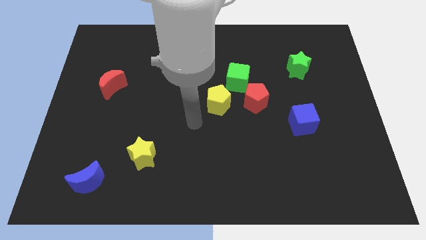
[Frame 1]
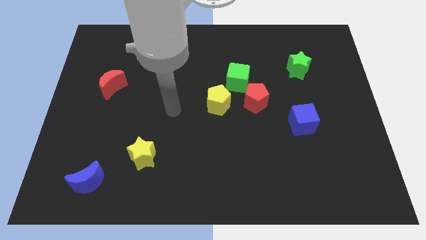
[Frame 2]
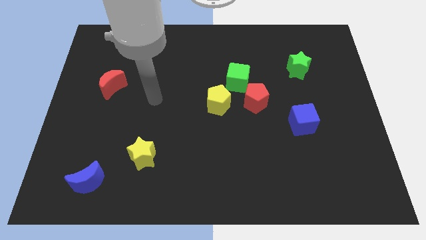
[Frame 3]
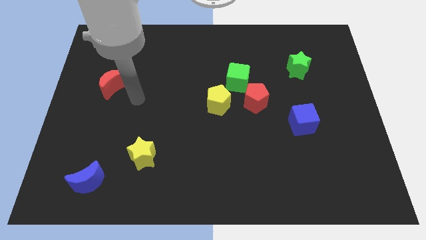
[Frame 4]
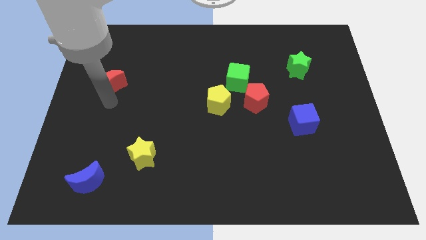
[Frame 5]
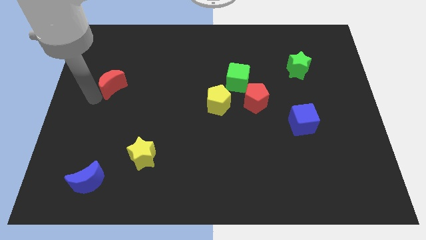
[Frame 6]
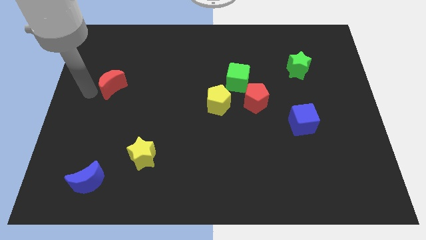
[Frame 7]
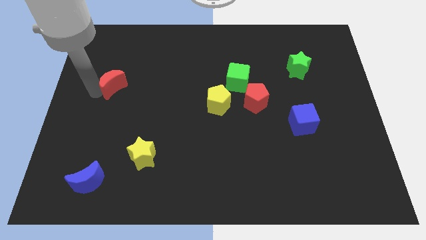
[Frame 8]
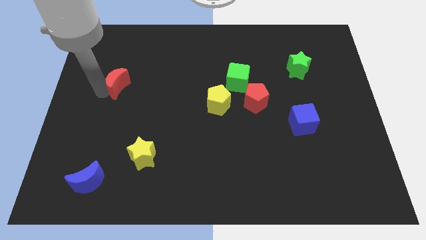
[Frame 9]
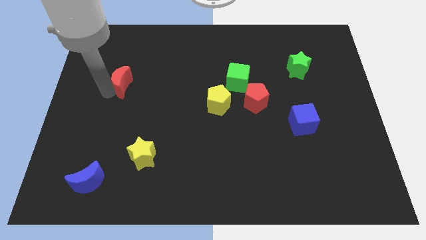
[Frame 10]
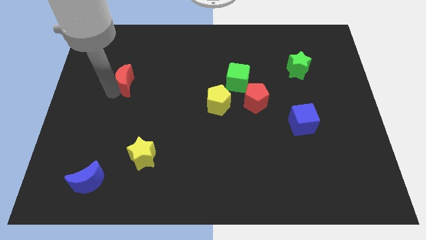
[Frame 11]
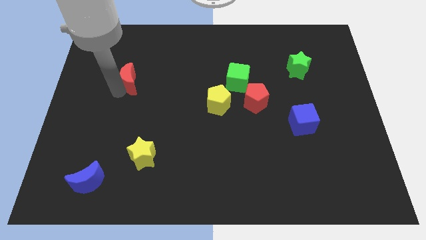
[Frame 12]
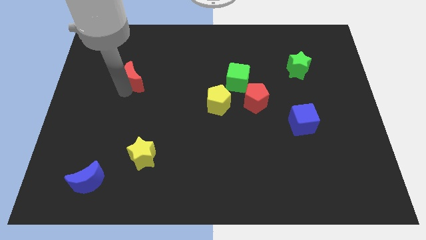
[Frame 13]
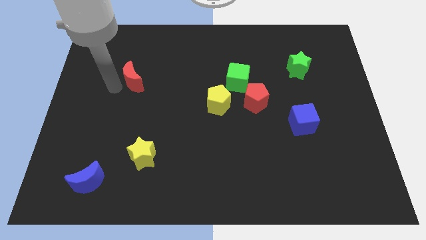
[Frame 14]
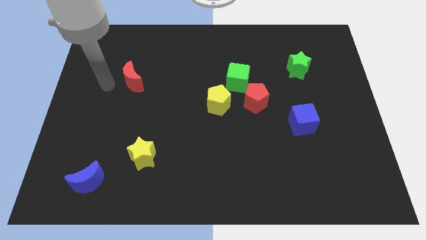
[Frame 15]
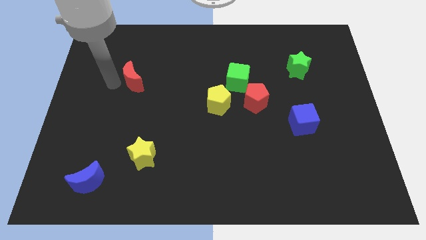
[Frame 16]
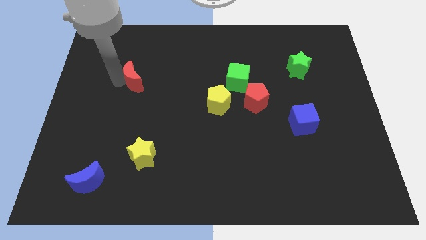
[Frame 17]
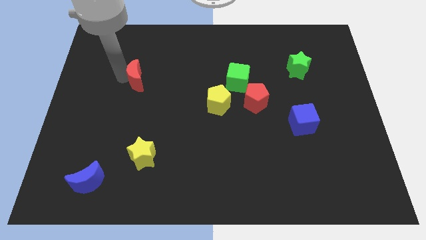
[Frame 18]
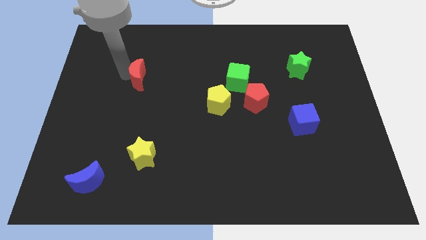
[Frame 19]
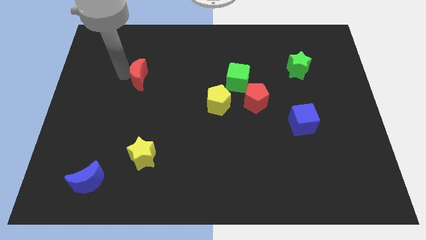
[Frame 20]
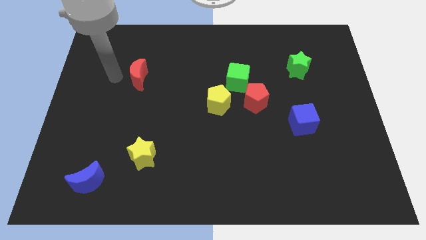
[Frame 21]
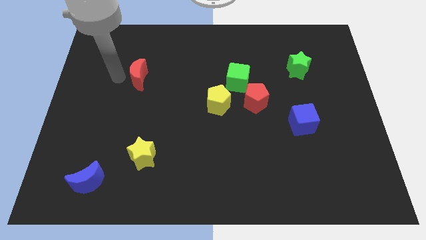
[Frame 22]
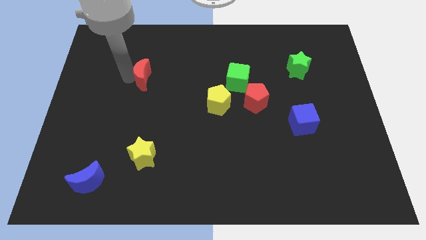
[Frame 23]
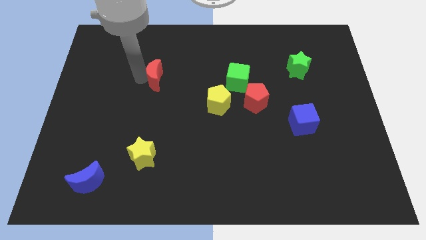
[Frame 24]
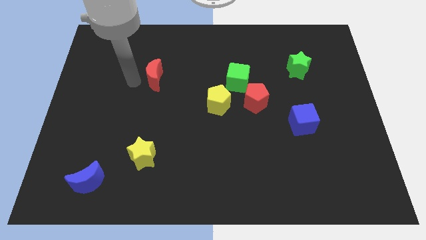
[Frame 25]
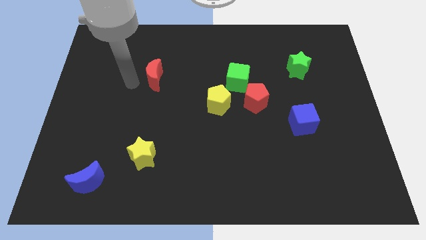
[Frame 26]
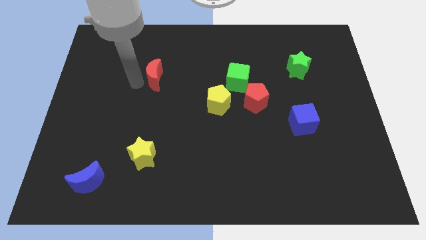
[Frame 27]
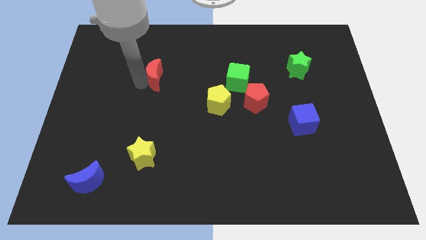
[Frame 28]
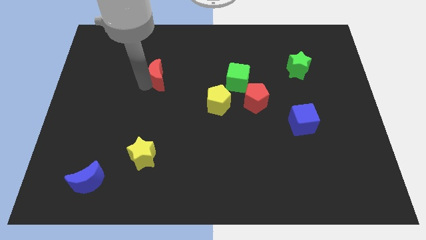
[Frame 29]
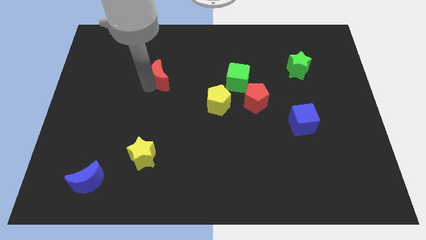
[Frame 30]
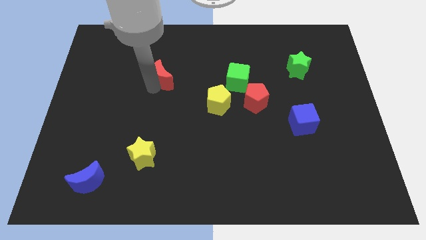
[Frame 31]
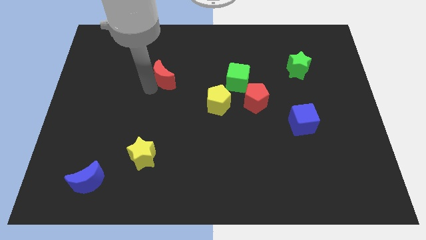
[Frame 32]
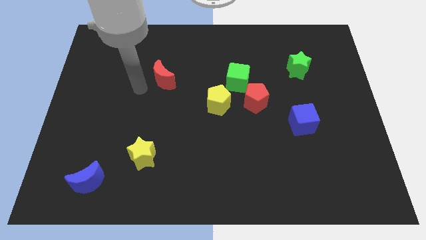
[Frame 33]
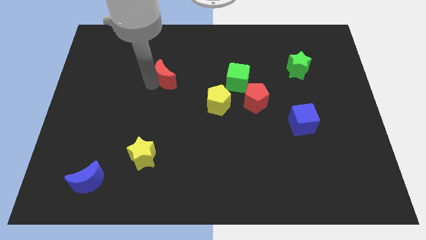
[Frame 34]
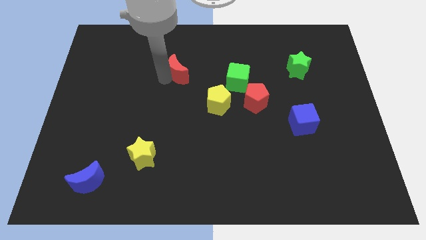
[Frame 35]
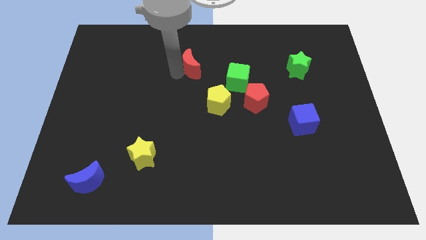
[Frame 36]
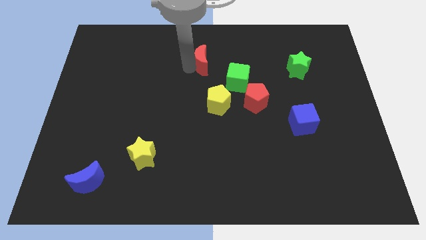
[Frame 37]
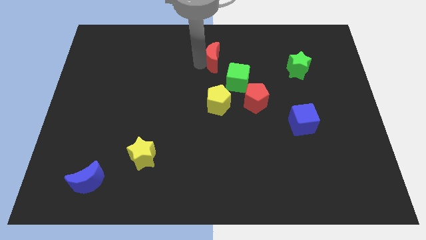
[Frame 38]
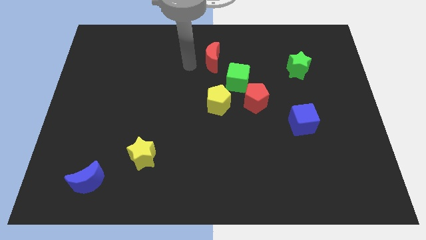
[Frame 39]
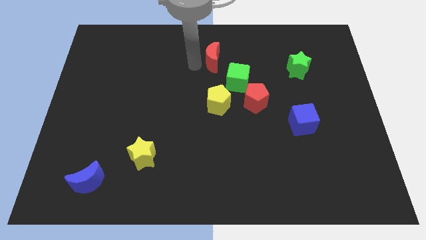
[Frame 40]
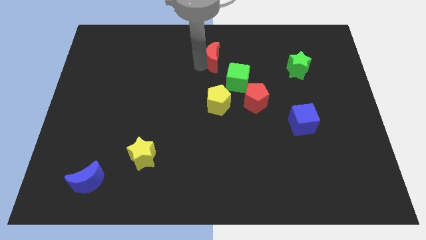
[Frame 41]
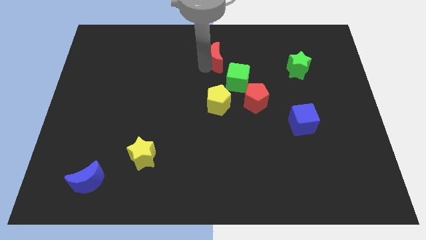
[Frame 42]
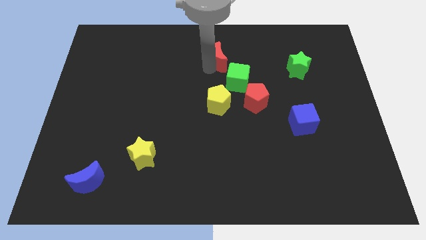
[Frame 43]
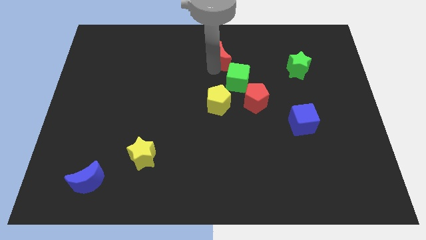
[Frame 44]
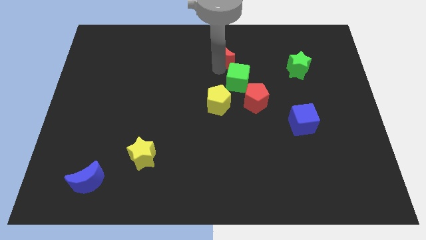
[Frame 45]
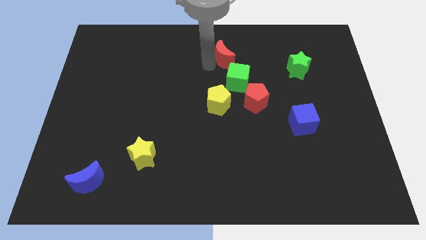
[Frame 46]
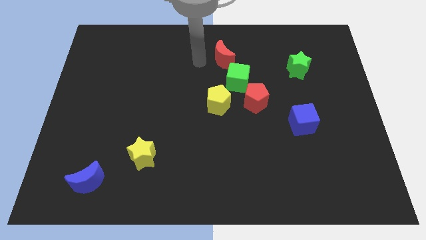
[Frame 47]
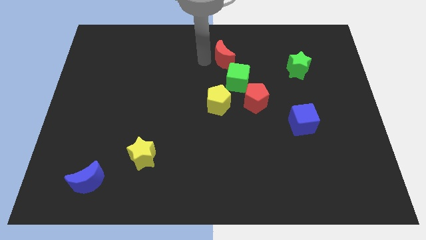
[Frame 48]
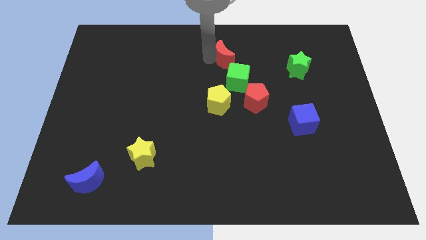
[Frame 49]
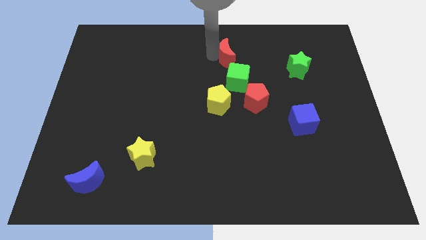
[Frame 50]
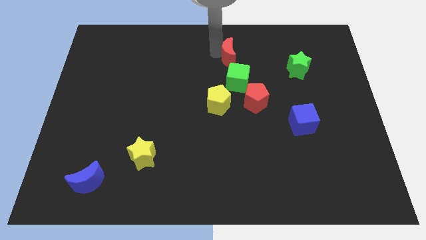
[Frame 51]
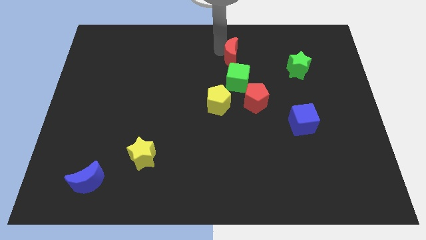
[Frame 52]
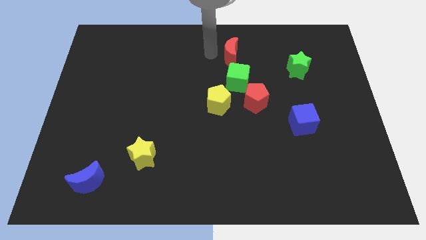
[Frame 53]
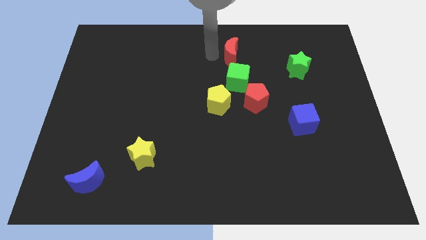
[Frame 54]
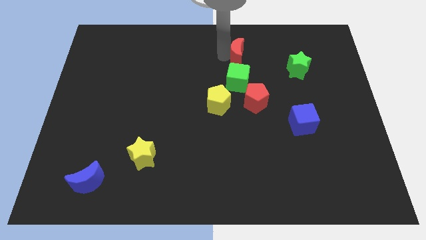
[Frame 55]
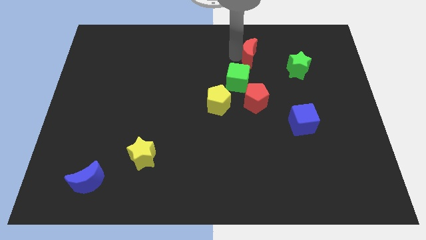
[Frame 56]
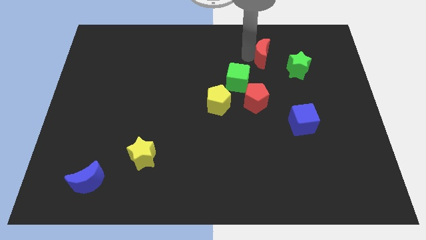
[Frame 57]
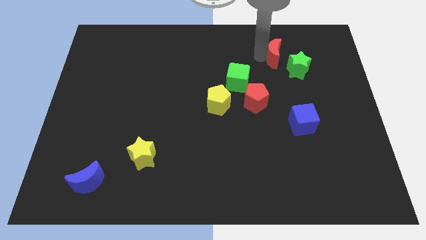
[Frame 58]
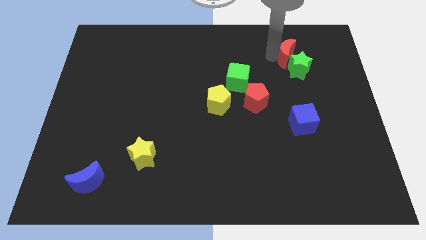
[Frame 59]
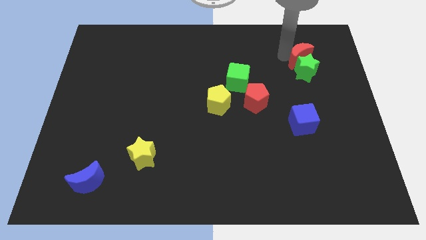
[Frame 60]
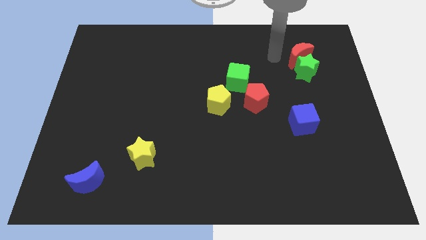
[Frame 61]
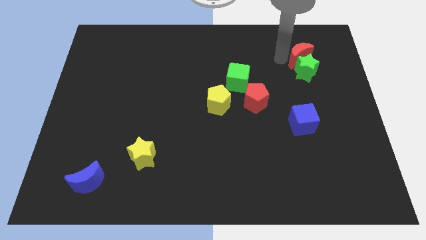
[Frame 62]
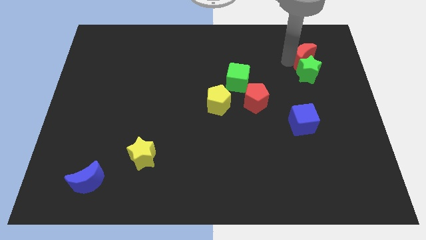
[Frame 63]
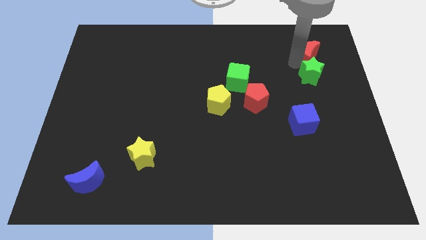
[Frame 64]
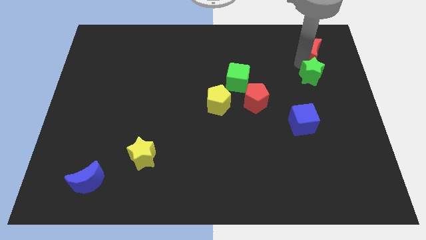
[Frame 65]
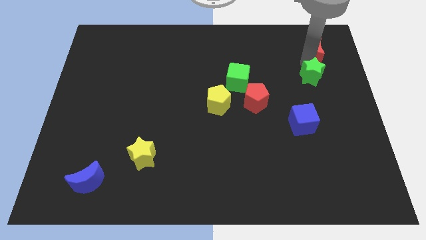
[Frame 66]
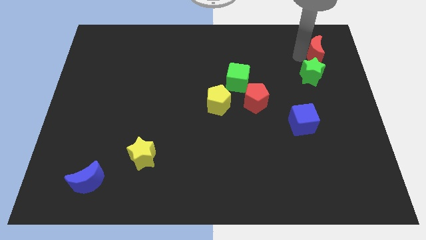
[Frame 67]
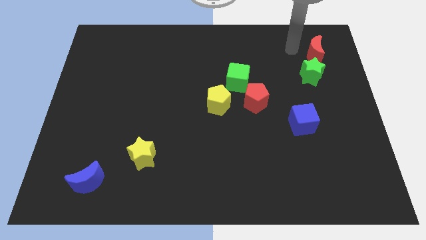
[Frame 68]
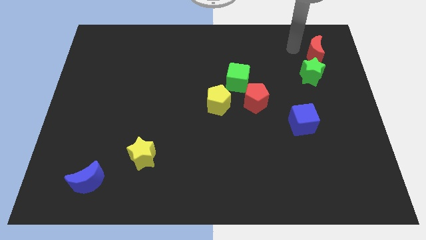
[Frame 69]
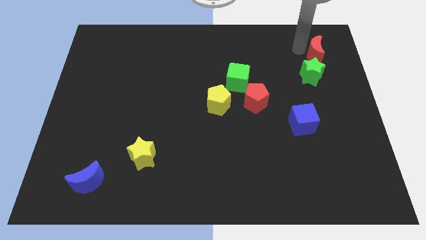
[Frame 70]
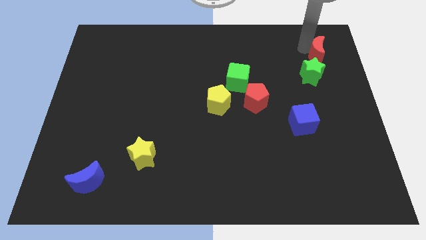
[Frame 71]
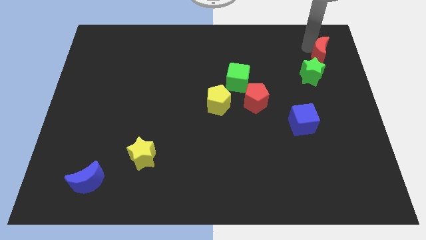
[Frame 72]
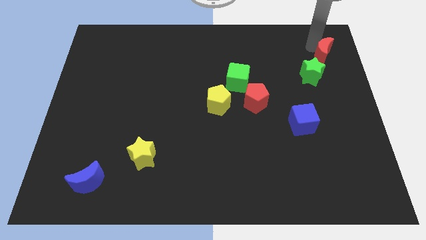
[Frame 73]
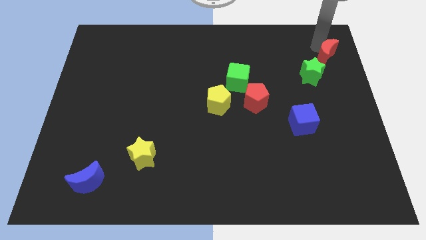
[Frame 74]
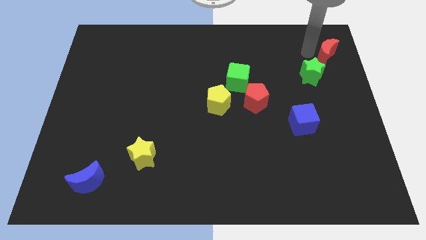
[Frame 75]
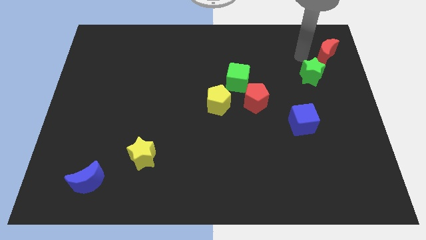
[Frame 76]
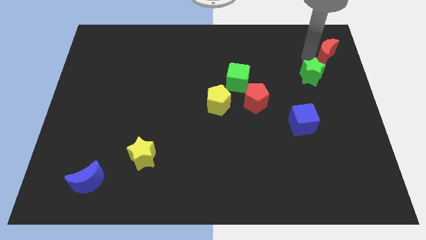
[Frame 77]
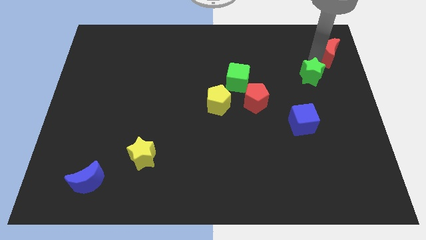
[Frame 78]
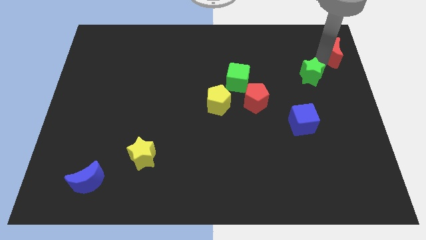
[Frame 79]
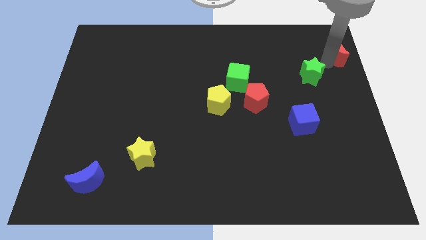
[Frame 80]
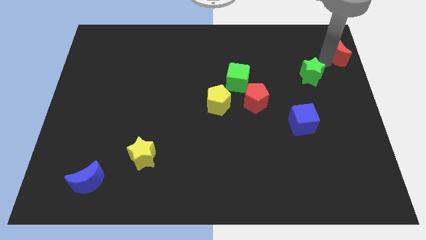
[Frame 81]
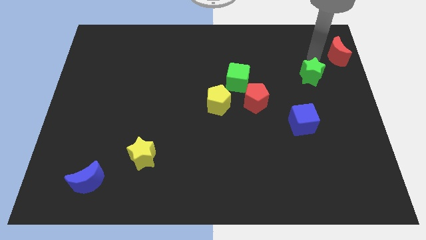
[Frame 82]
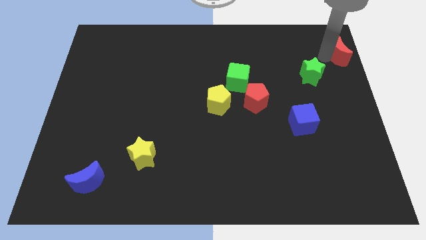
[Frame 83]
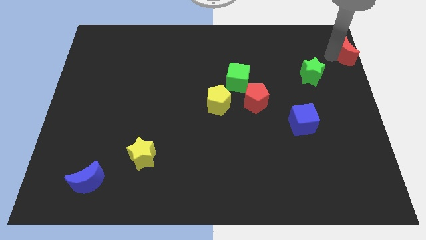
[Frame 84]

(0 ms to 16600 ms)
push the red moon to the upper right corner
